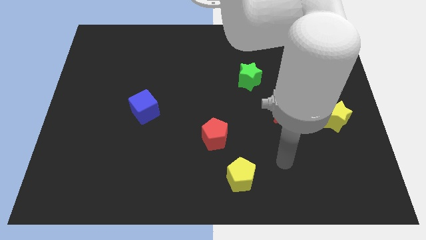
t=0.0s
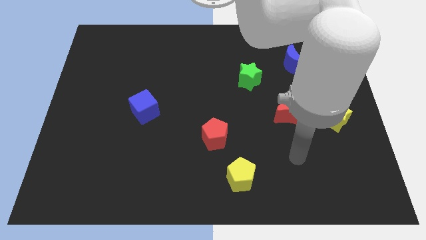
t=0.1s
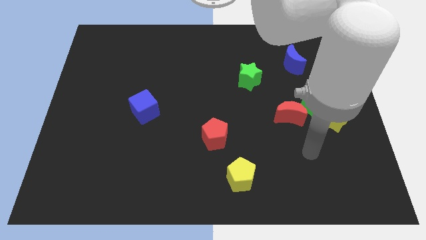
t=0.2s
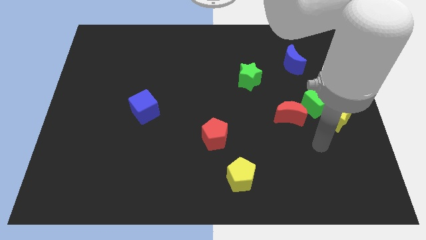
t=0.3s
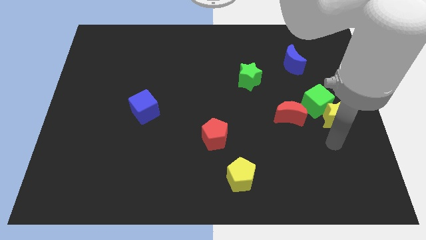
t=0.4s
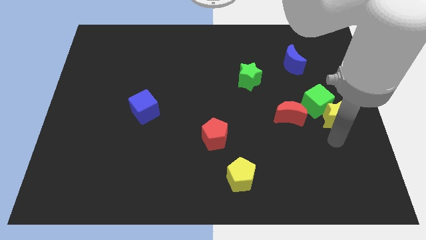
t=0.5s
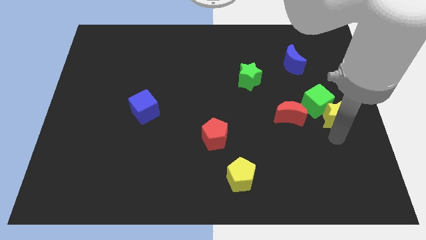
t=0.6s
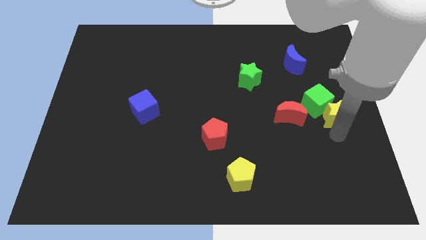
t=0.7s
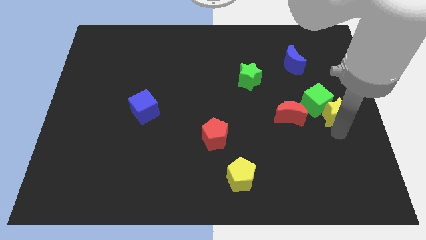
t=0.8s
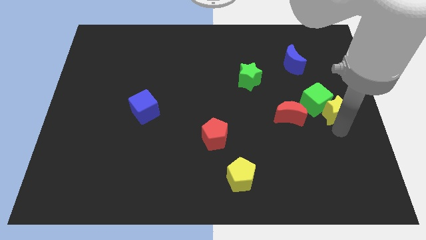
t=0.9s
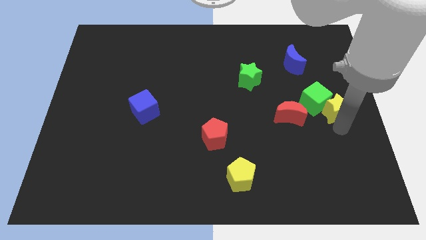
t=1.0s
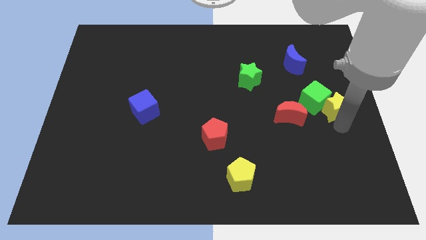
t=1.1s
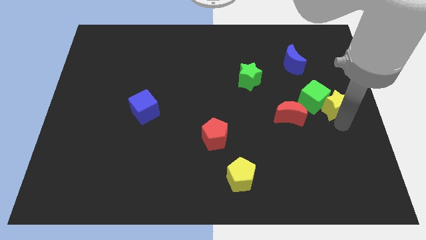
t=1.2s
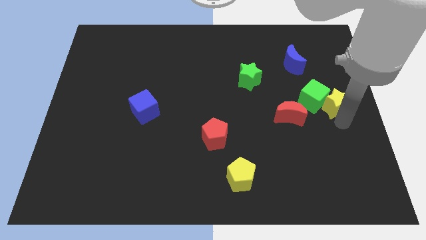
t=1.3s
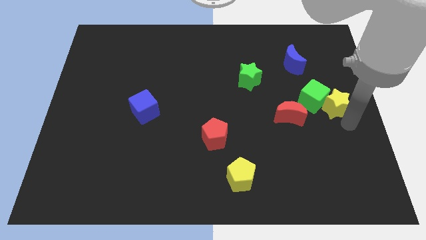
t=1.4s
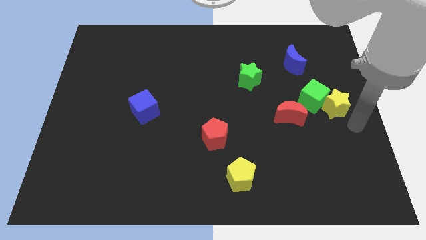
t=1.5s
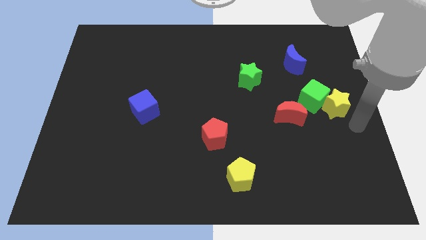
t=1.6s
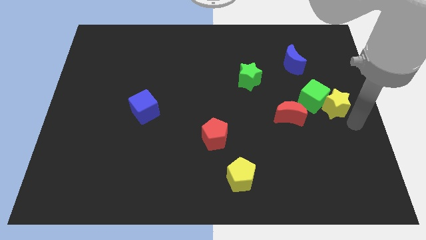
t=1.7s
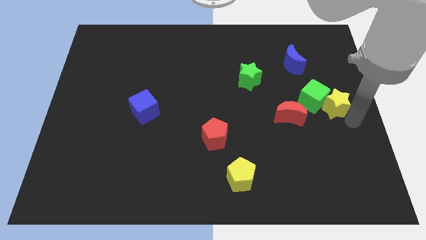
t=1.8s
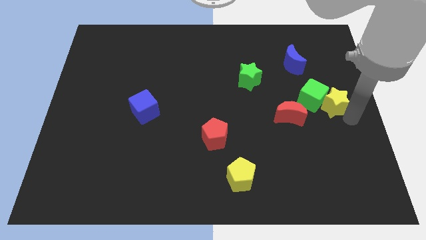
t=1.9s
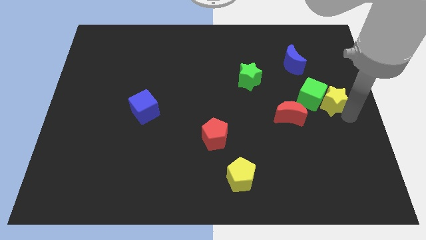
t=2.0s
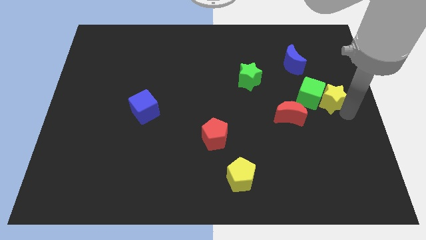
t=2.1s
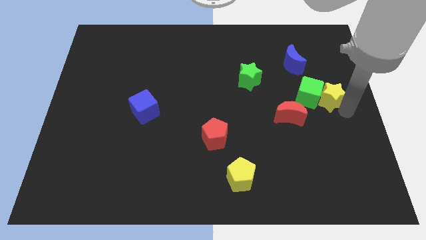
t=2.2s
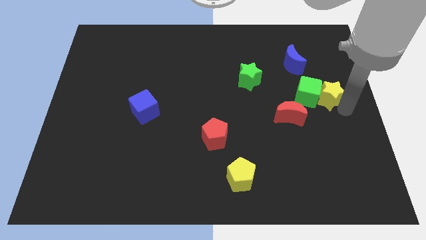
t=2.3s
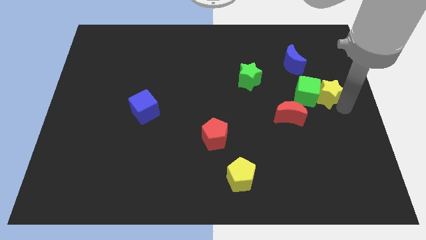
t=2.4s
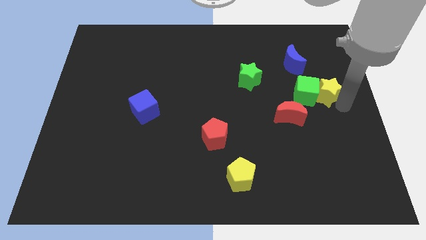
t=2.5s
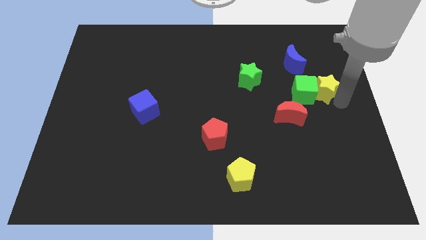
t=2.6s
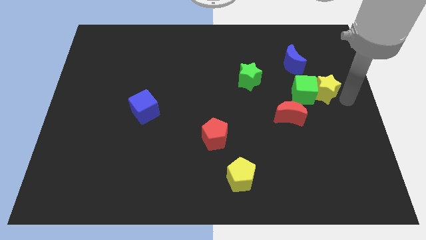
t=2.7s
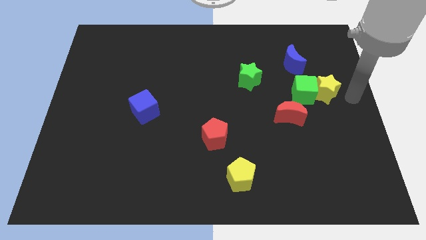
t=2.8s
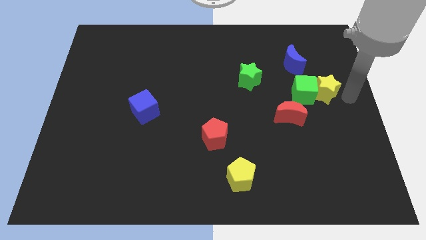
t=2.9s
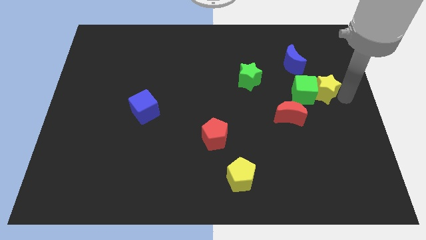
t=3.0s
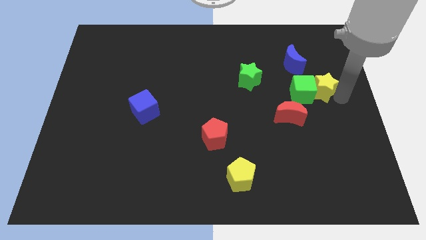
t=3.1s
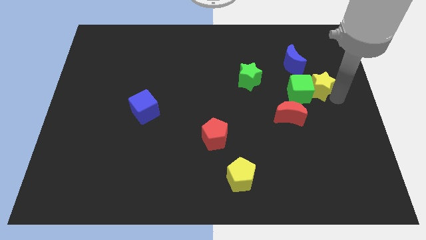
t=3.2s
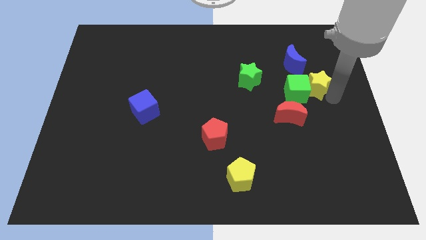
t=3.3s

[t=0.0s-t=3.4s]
move the yellow star a bit upwards and to the left

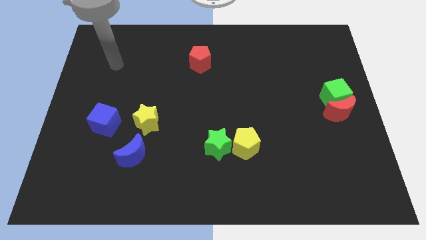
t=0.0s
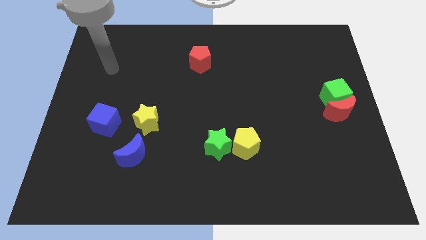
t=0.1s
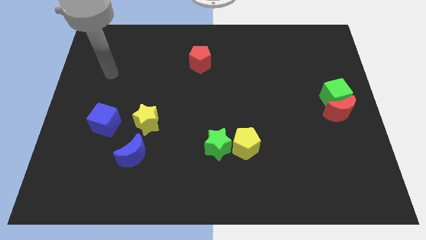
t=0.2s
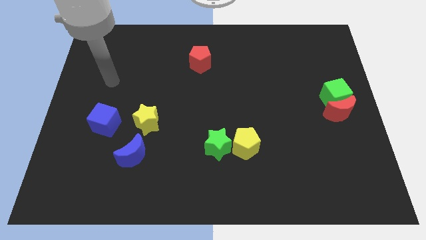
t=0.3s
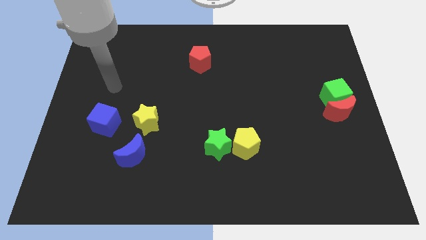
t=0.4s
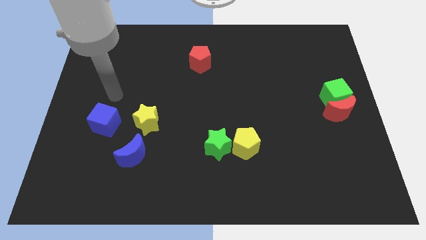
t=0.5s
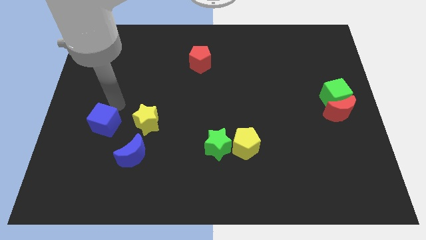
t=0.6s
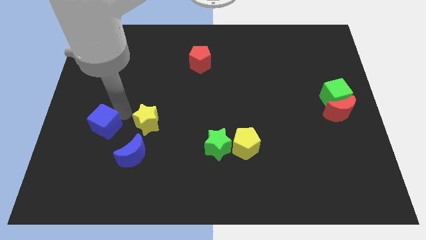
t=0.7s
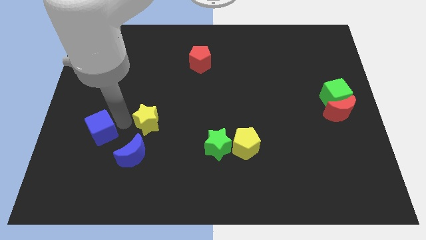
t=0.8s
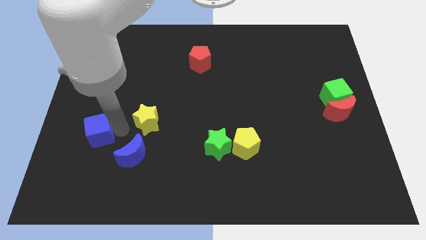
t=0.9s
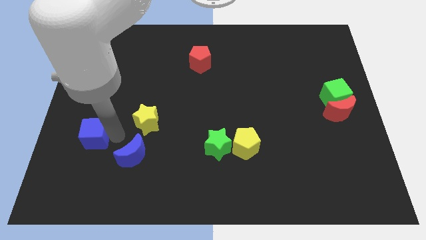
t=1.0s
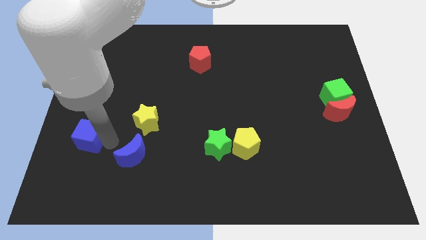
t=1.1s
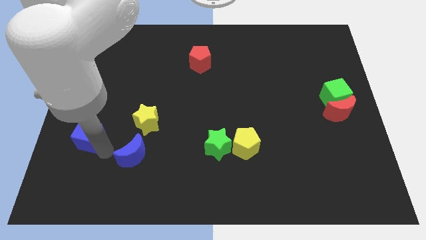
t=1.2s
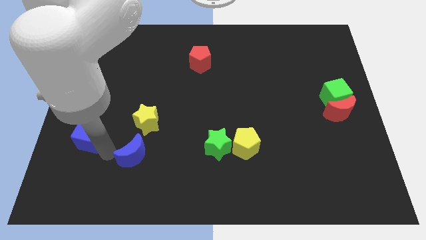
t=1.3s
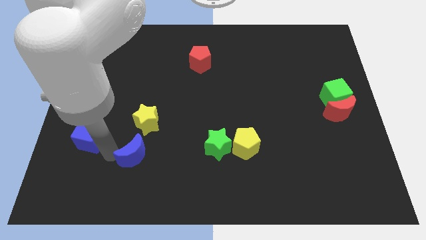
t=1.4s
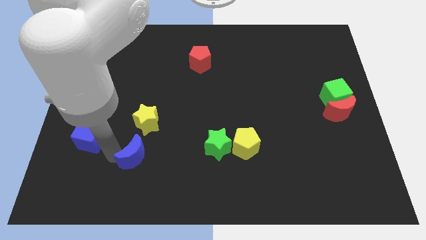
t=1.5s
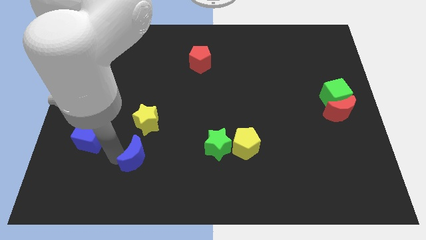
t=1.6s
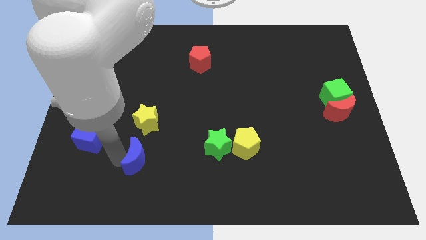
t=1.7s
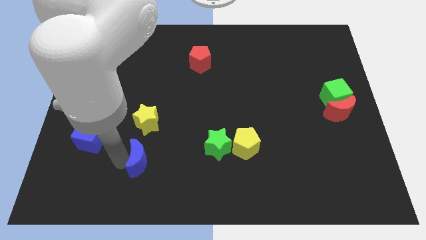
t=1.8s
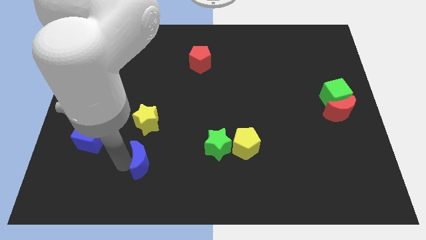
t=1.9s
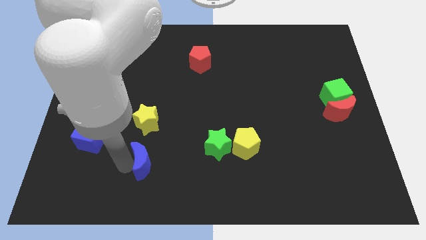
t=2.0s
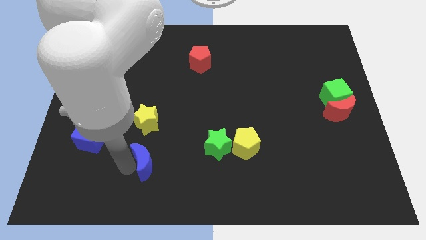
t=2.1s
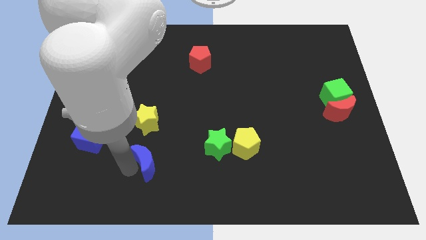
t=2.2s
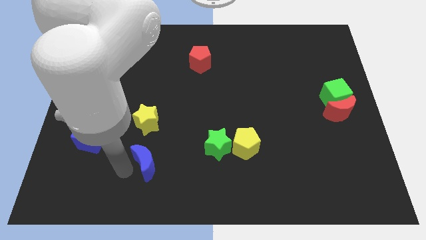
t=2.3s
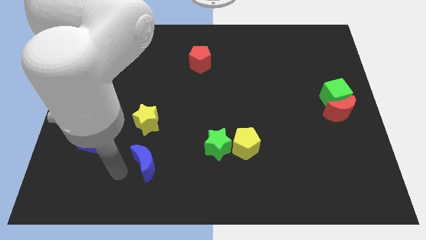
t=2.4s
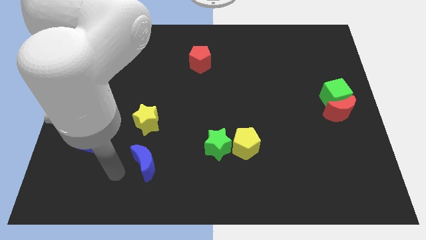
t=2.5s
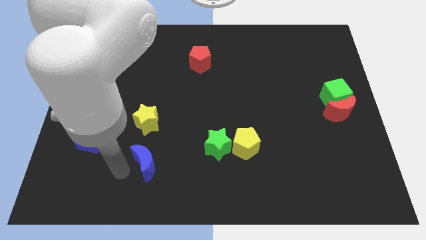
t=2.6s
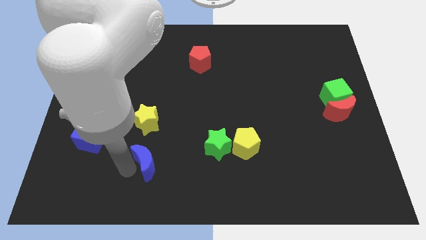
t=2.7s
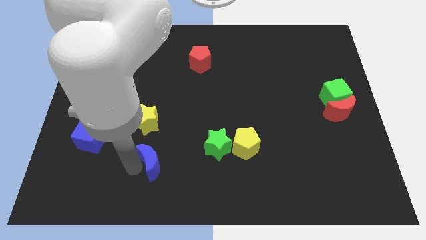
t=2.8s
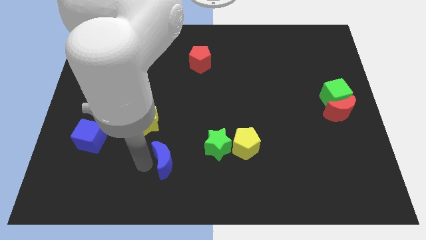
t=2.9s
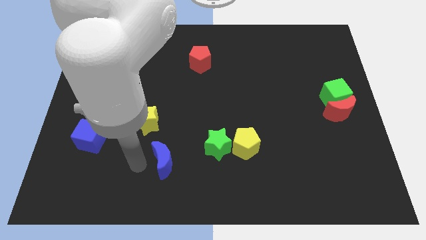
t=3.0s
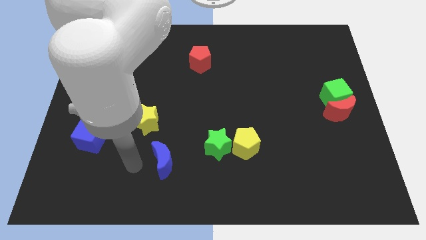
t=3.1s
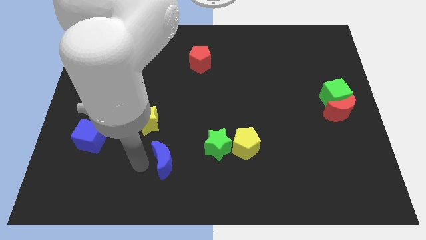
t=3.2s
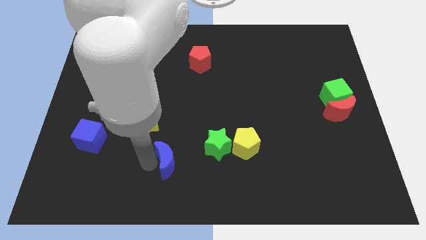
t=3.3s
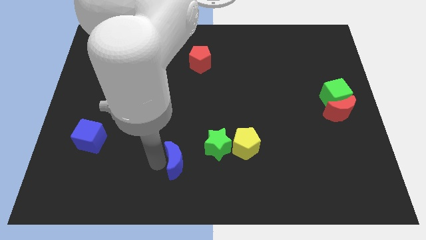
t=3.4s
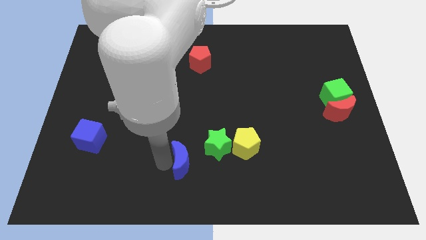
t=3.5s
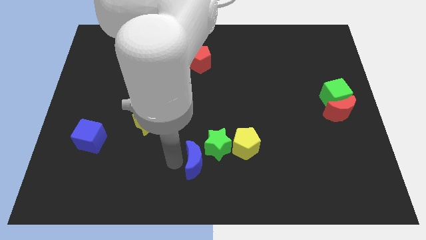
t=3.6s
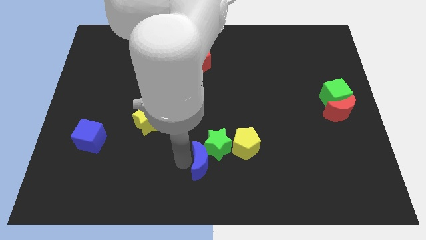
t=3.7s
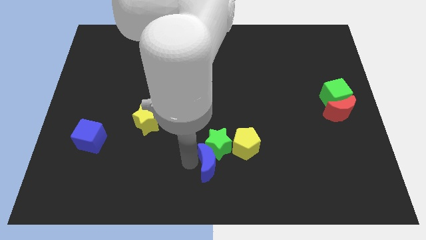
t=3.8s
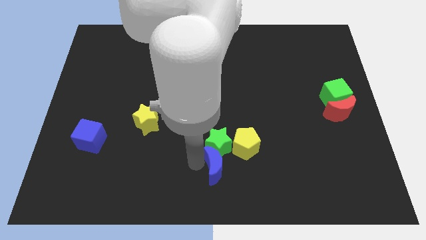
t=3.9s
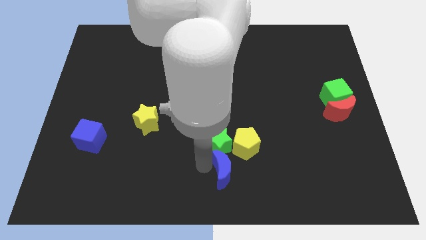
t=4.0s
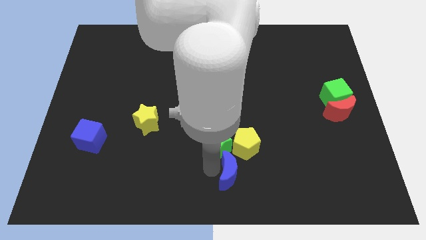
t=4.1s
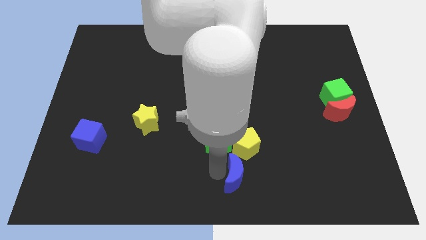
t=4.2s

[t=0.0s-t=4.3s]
move the blue moon right

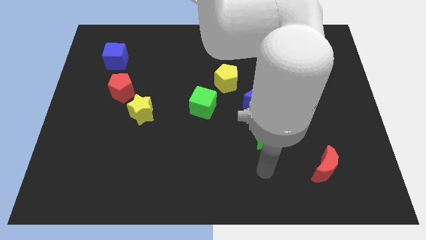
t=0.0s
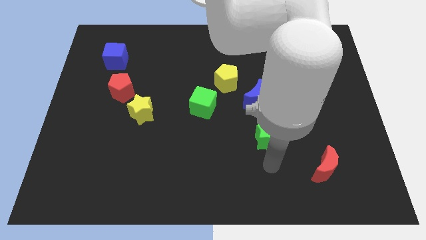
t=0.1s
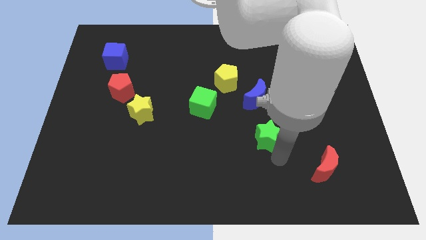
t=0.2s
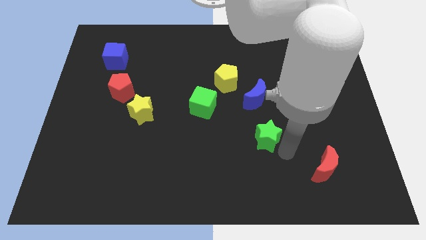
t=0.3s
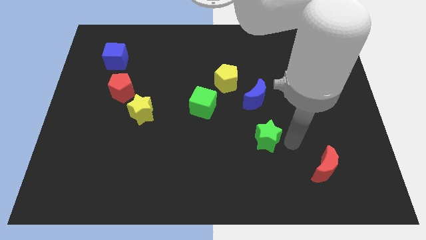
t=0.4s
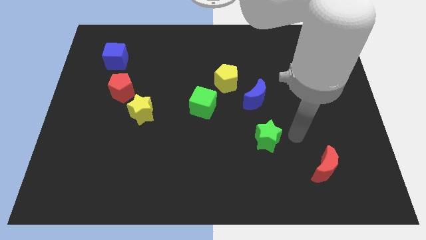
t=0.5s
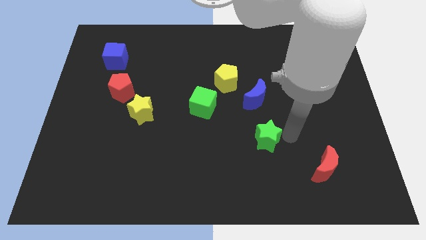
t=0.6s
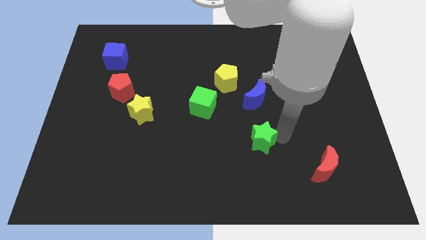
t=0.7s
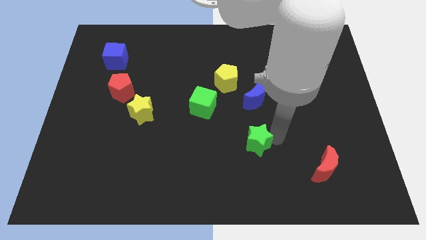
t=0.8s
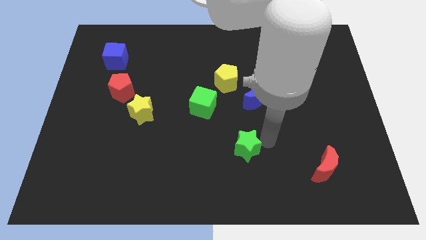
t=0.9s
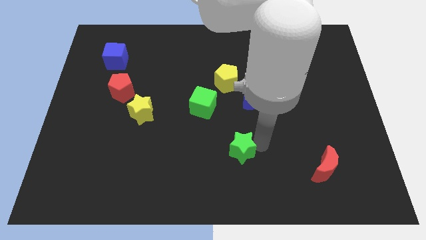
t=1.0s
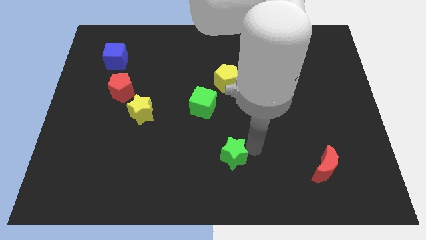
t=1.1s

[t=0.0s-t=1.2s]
move the green star a little left
